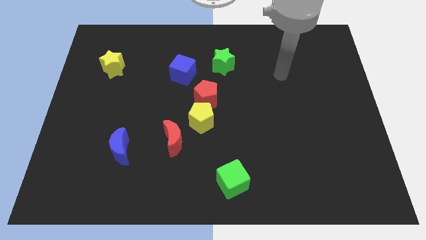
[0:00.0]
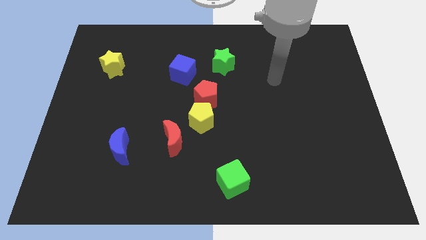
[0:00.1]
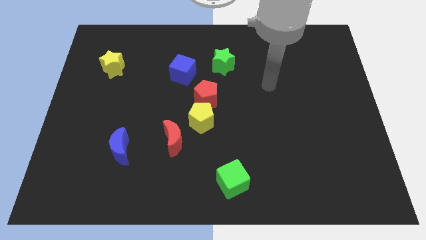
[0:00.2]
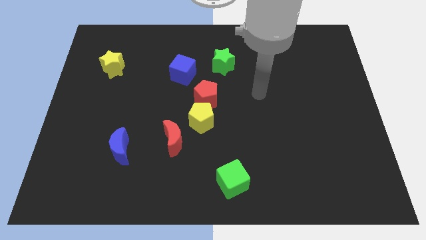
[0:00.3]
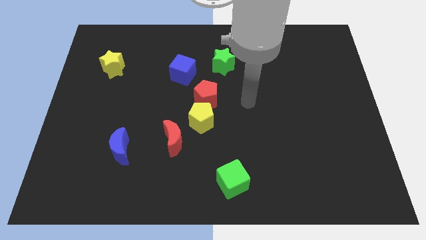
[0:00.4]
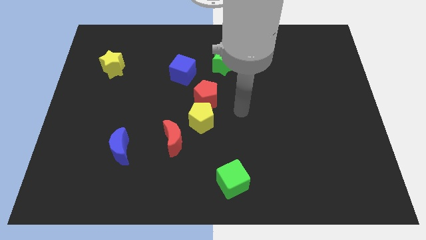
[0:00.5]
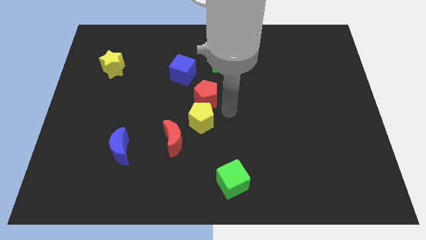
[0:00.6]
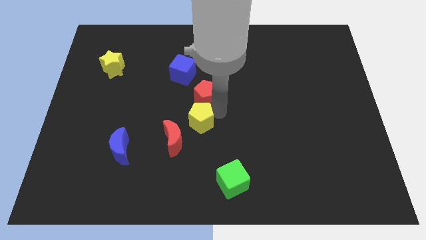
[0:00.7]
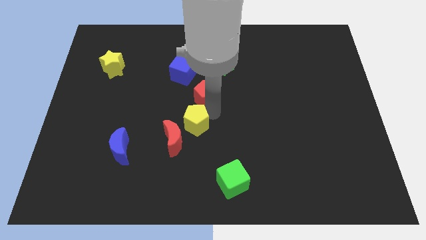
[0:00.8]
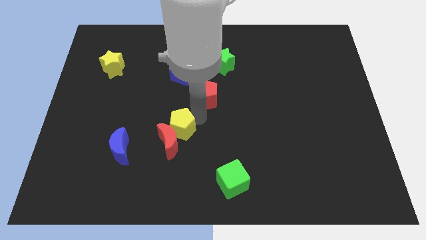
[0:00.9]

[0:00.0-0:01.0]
move the red pentagon away from the yellow pentagon

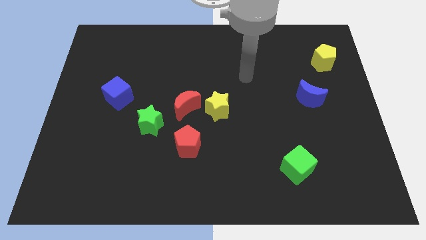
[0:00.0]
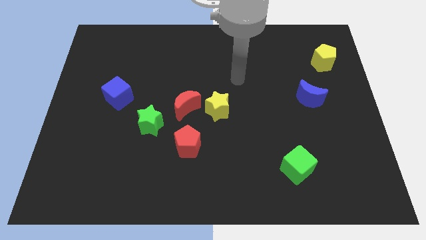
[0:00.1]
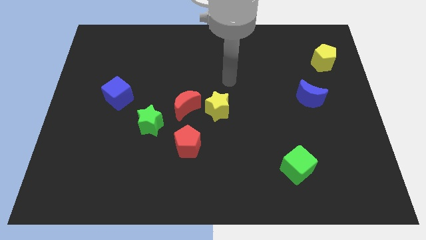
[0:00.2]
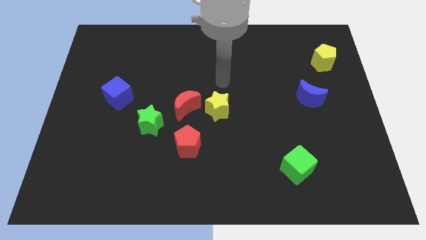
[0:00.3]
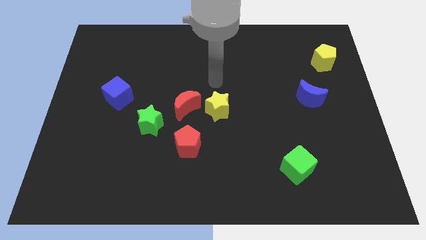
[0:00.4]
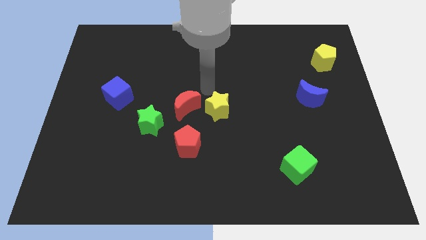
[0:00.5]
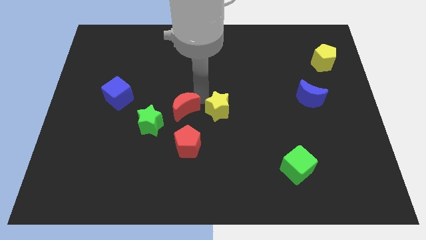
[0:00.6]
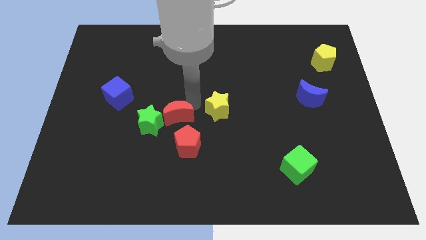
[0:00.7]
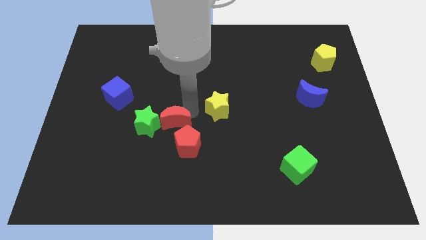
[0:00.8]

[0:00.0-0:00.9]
move the yellow star away from the red moon

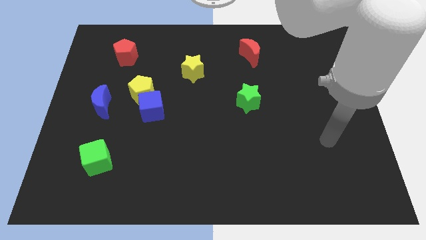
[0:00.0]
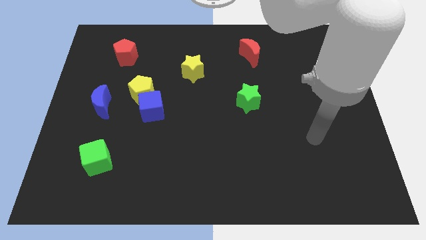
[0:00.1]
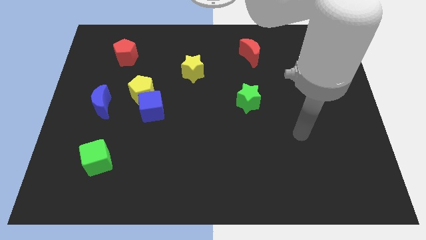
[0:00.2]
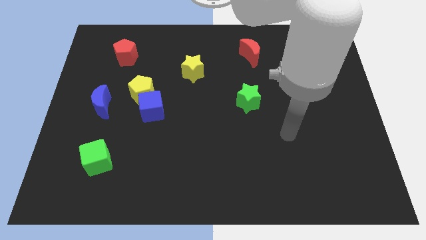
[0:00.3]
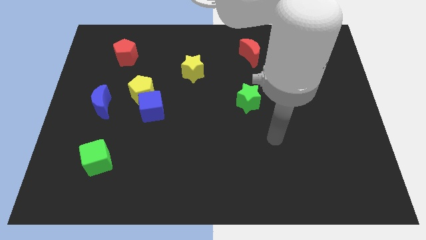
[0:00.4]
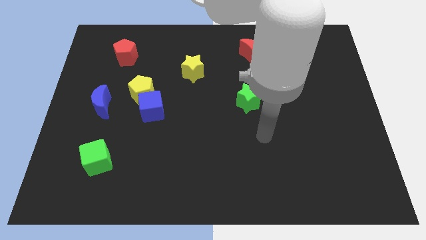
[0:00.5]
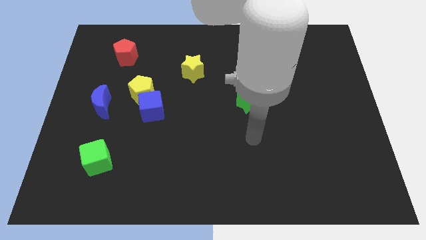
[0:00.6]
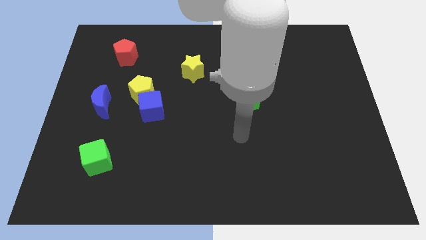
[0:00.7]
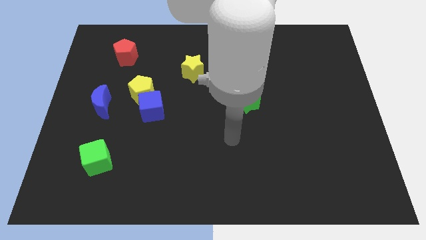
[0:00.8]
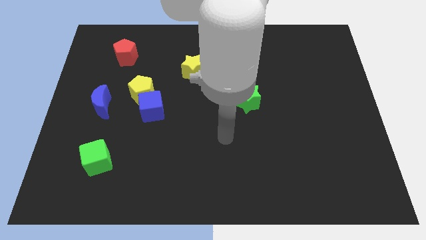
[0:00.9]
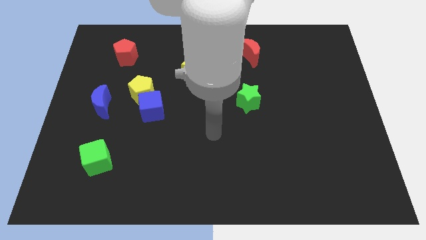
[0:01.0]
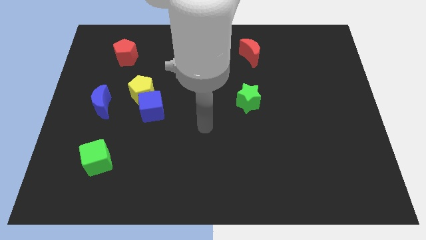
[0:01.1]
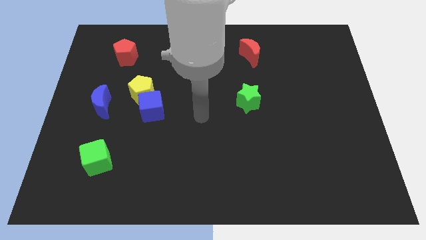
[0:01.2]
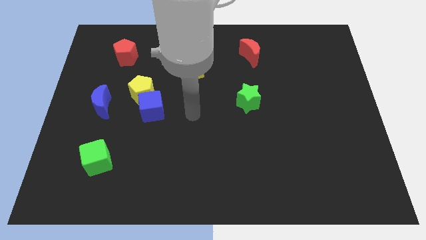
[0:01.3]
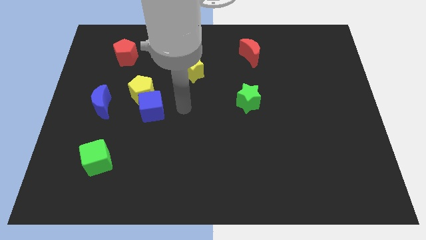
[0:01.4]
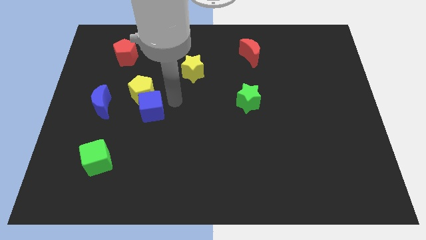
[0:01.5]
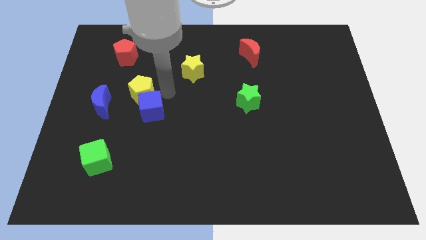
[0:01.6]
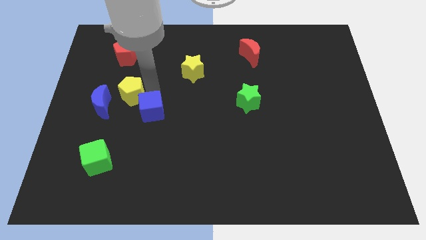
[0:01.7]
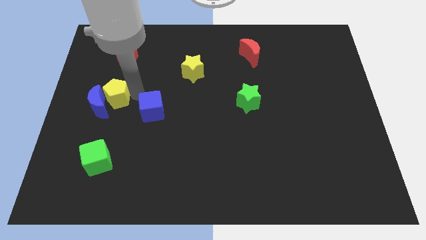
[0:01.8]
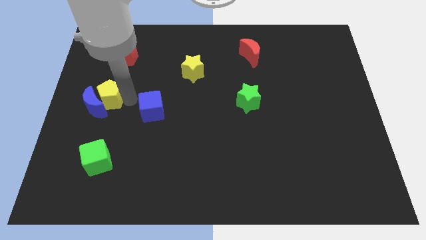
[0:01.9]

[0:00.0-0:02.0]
pull the blue cube apart from the yellow pentagon

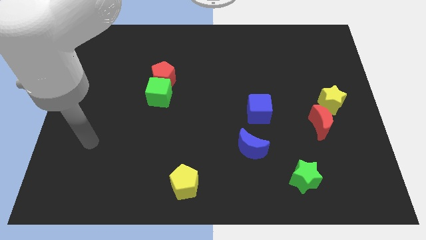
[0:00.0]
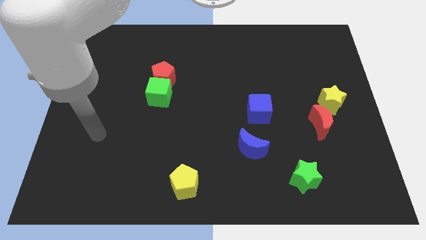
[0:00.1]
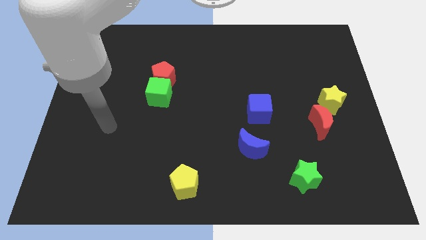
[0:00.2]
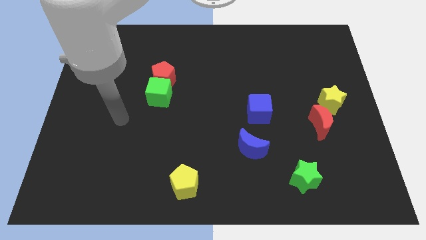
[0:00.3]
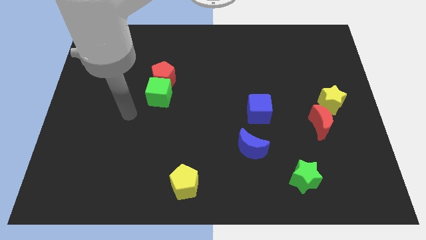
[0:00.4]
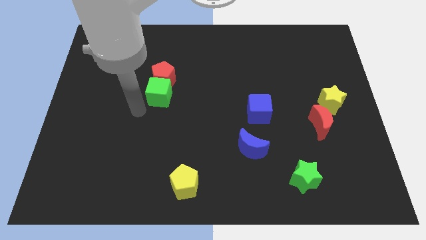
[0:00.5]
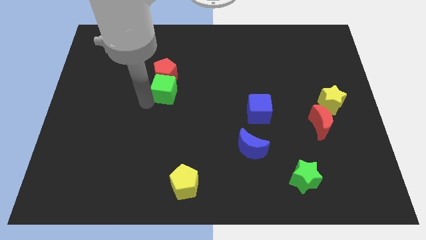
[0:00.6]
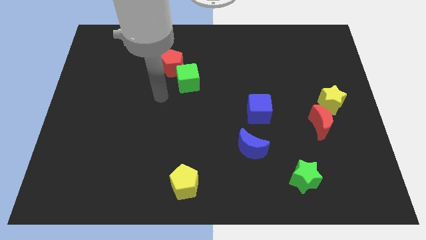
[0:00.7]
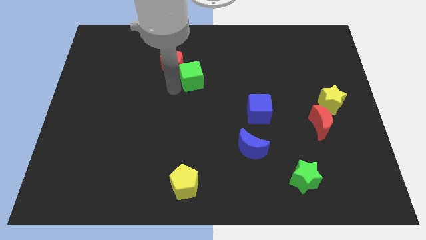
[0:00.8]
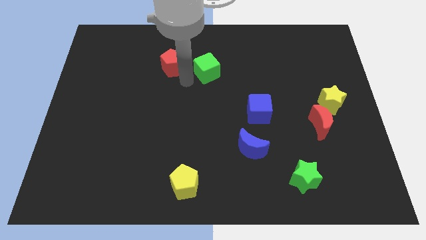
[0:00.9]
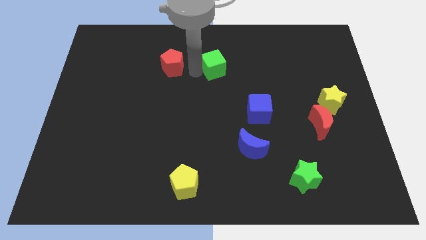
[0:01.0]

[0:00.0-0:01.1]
separate the red pentagon from the green cube

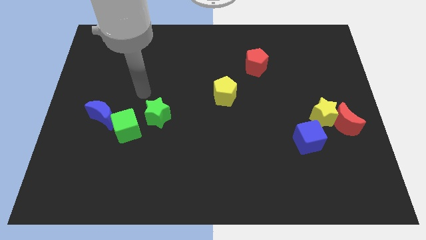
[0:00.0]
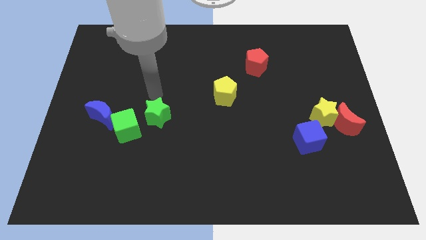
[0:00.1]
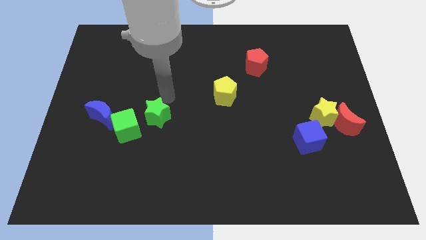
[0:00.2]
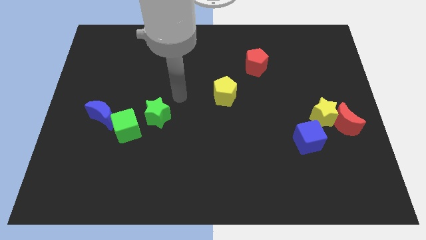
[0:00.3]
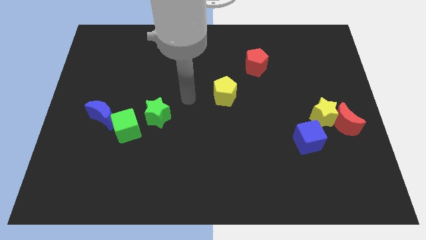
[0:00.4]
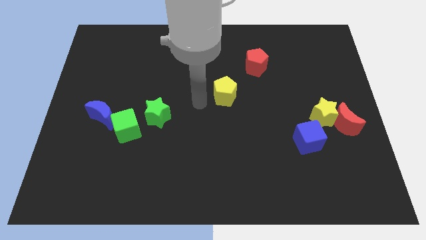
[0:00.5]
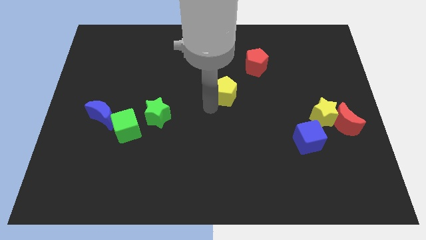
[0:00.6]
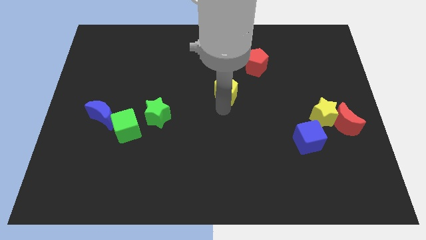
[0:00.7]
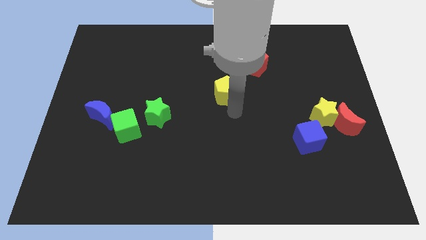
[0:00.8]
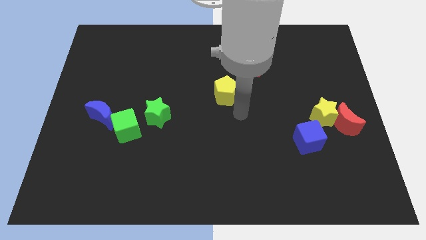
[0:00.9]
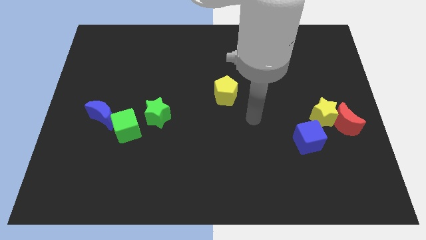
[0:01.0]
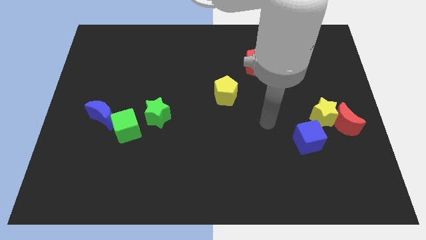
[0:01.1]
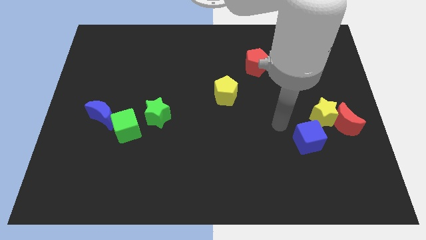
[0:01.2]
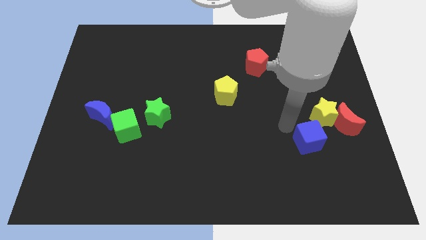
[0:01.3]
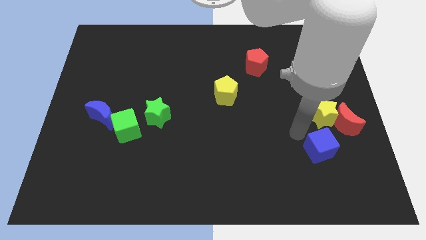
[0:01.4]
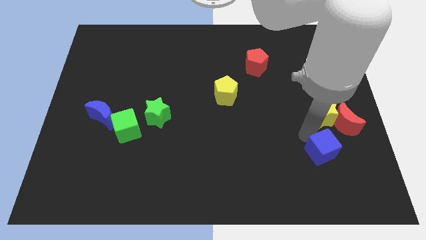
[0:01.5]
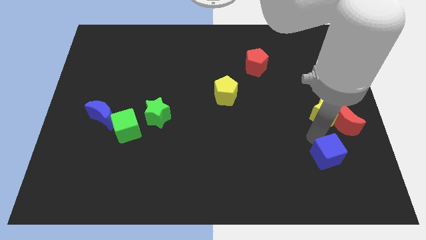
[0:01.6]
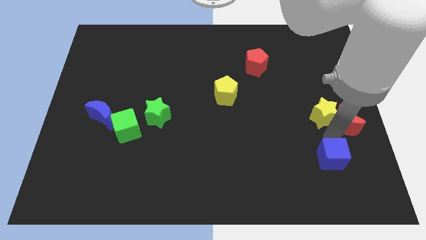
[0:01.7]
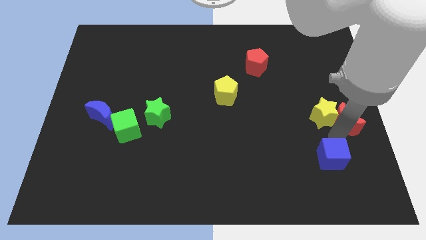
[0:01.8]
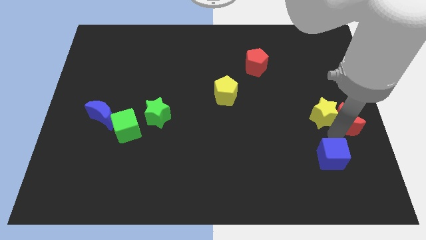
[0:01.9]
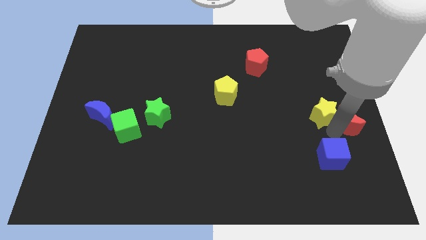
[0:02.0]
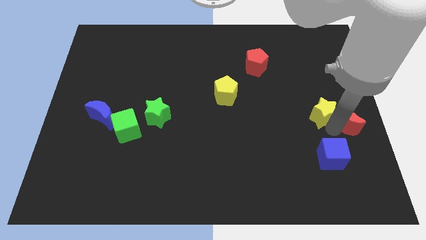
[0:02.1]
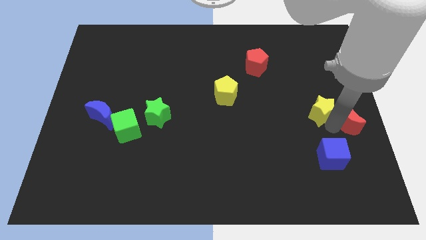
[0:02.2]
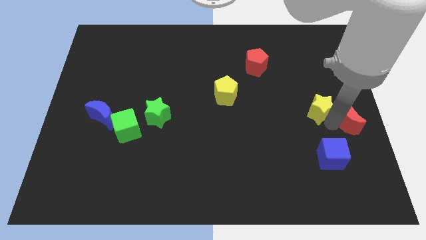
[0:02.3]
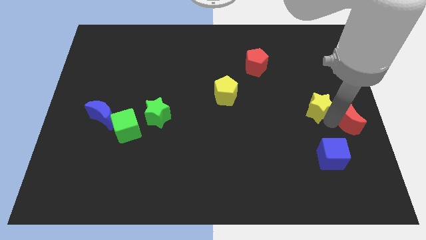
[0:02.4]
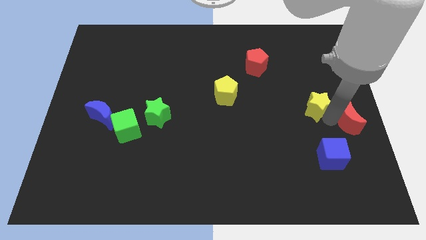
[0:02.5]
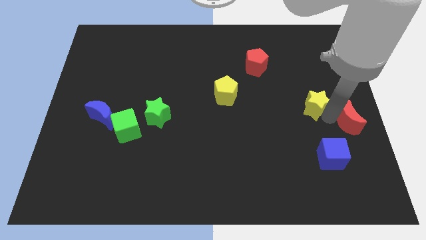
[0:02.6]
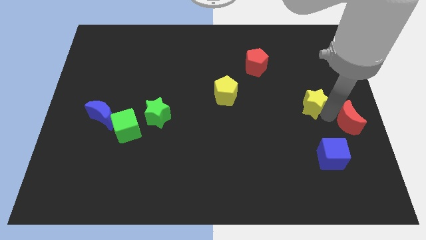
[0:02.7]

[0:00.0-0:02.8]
move the yellow star away from the red moon and blue cube

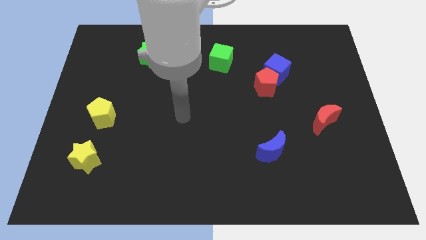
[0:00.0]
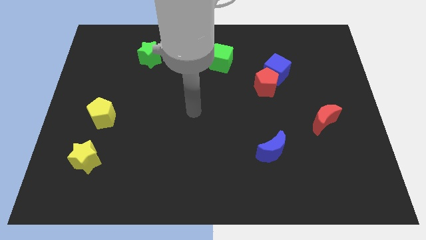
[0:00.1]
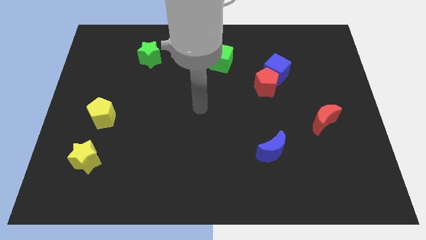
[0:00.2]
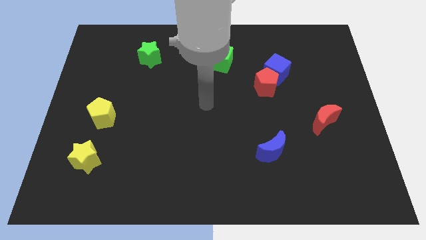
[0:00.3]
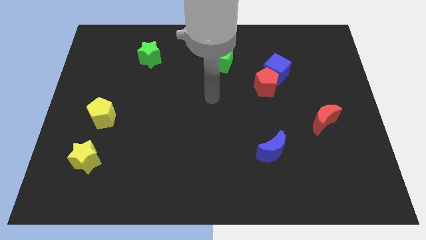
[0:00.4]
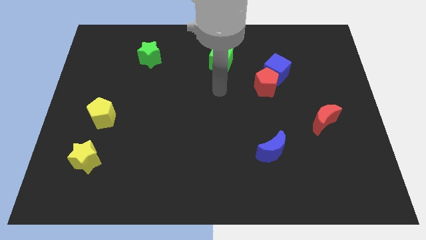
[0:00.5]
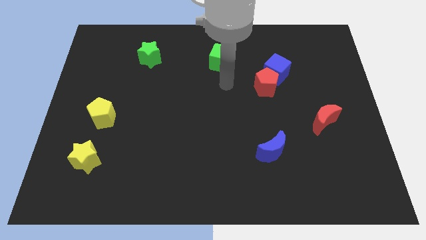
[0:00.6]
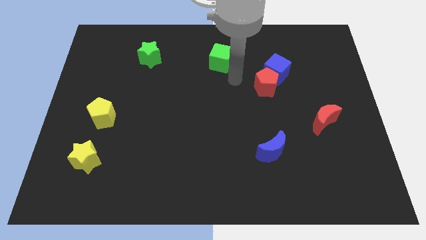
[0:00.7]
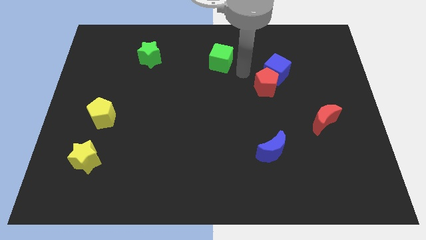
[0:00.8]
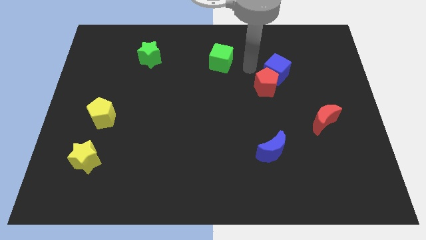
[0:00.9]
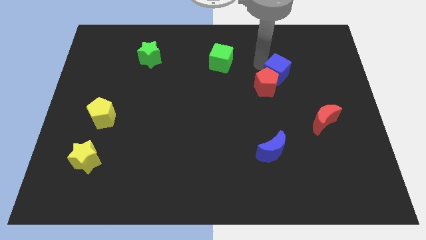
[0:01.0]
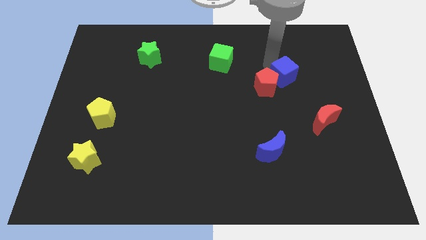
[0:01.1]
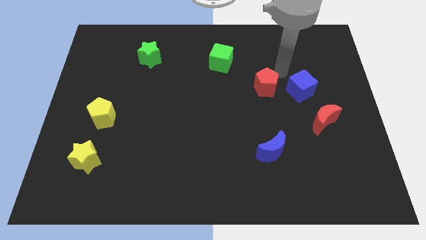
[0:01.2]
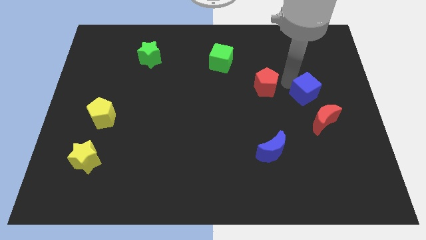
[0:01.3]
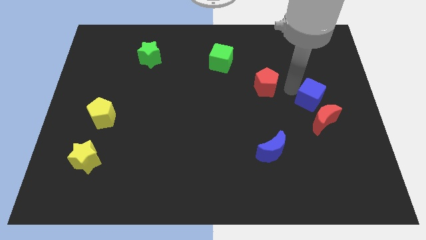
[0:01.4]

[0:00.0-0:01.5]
separate the red pentagon from the blue cube
